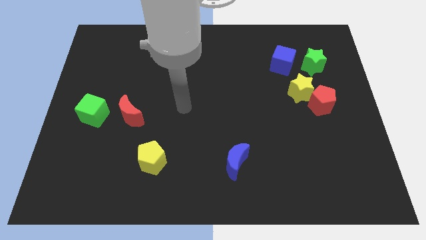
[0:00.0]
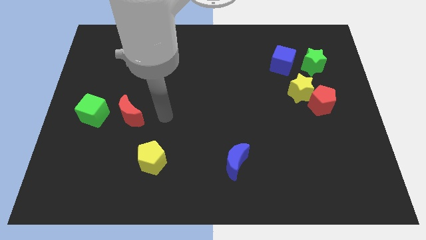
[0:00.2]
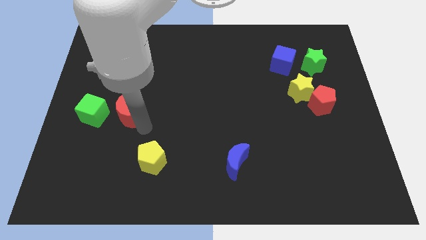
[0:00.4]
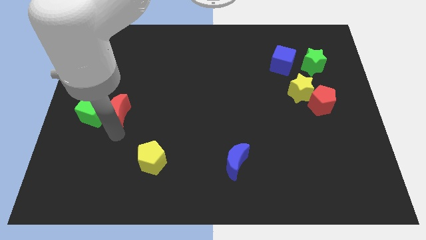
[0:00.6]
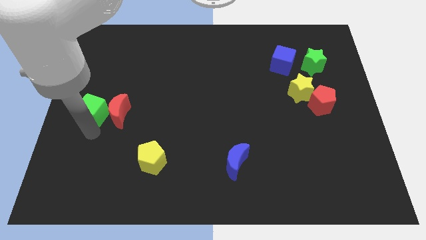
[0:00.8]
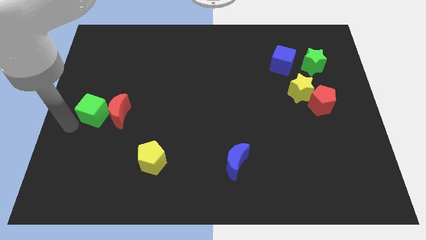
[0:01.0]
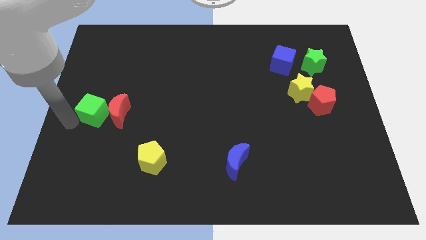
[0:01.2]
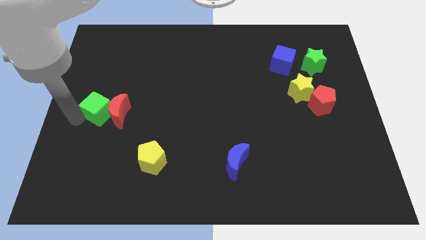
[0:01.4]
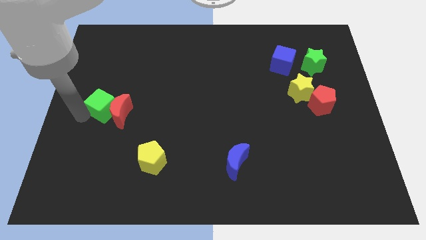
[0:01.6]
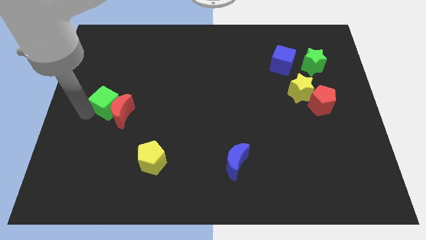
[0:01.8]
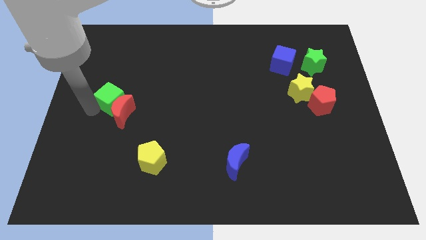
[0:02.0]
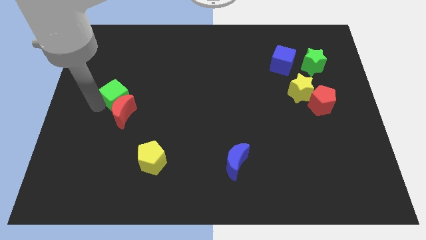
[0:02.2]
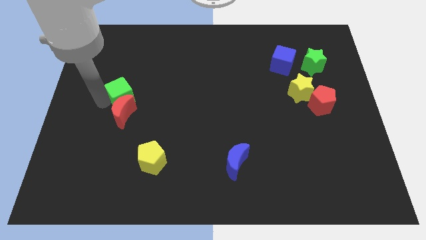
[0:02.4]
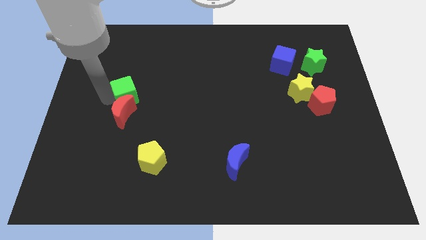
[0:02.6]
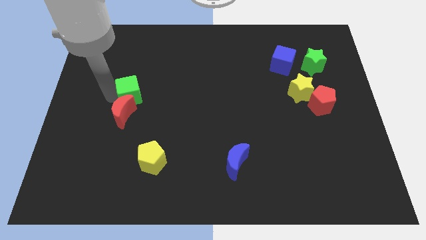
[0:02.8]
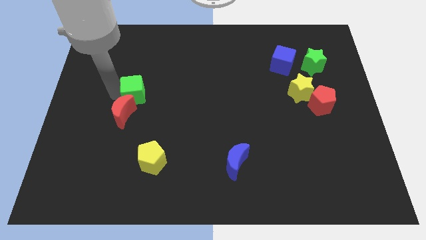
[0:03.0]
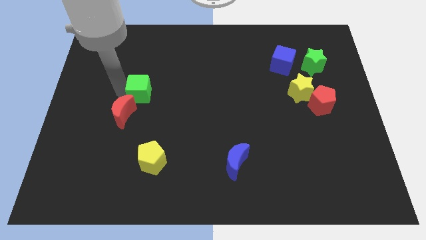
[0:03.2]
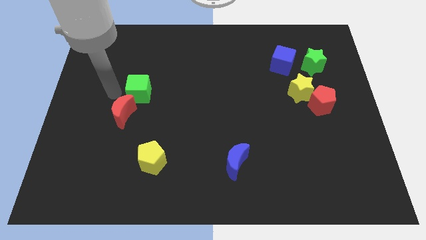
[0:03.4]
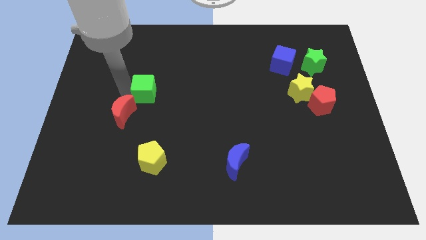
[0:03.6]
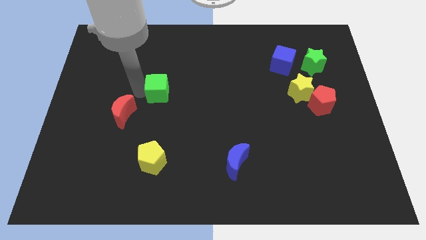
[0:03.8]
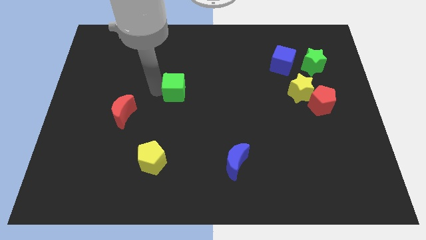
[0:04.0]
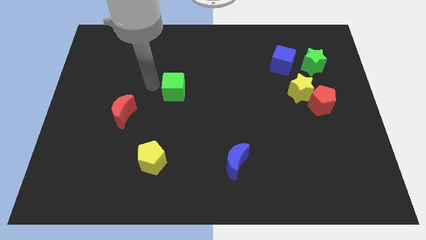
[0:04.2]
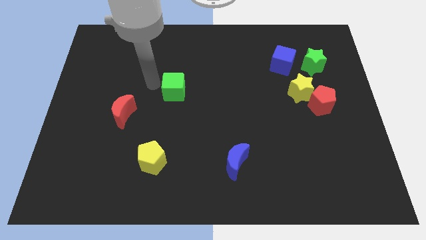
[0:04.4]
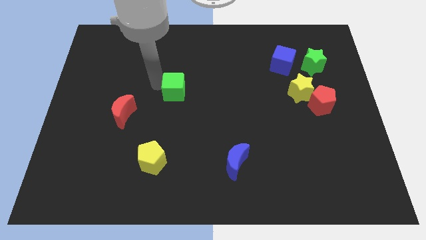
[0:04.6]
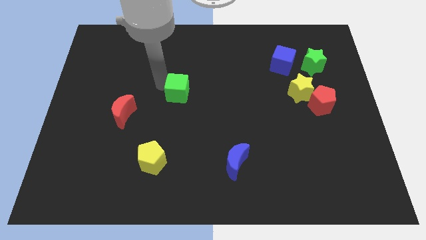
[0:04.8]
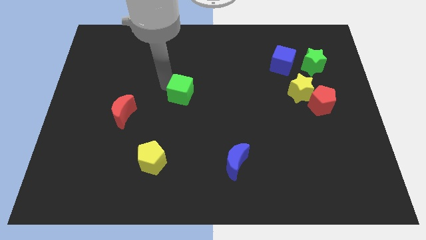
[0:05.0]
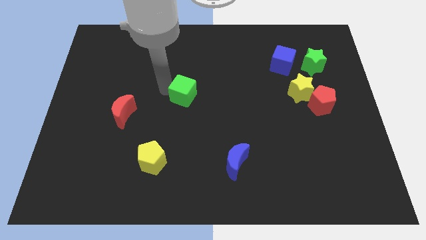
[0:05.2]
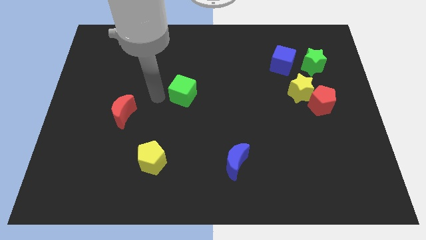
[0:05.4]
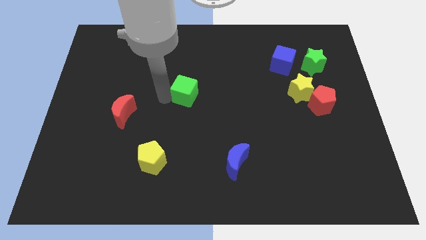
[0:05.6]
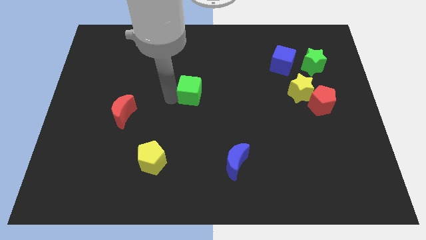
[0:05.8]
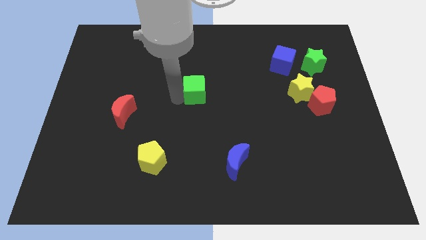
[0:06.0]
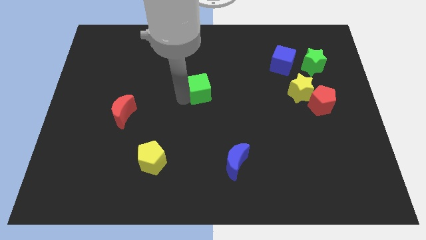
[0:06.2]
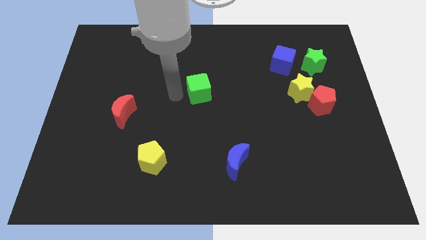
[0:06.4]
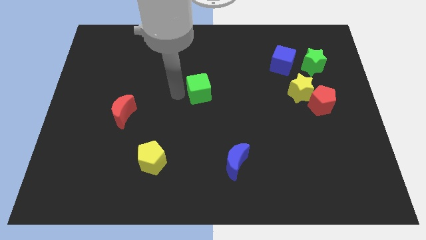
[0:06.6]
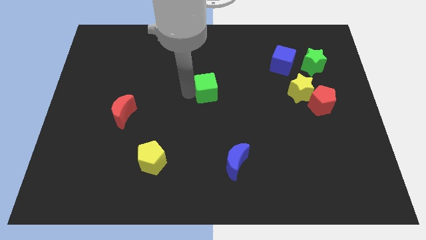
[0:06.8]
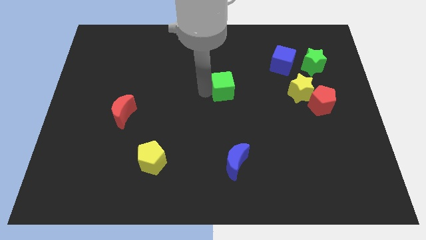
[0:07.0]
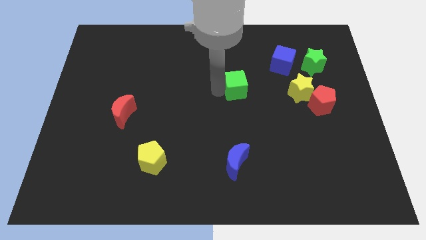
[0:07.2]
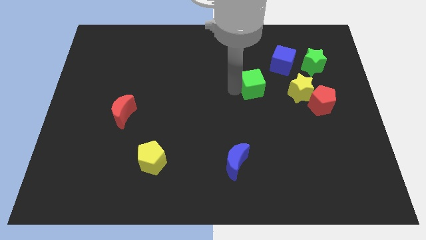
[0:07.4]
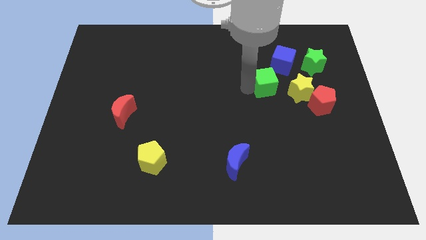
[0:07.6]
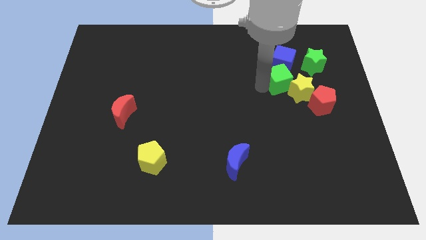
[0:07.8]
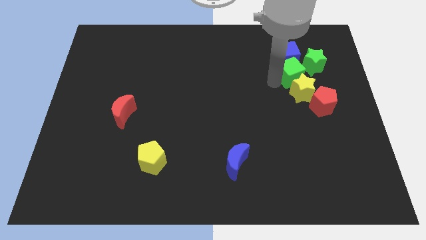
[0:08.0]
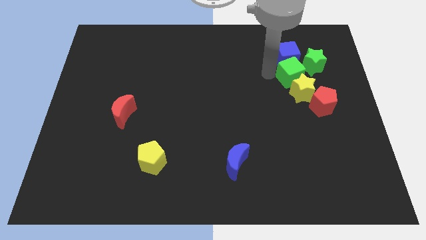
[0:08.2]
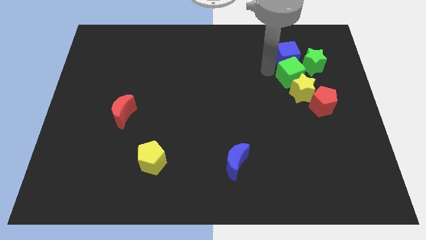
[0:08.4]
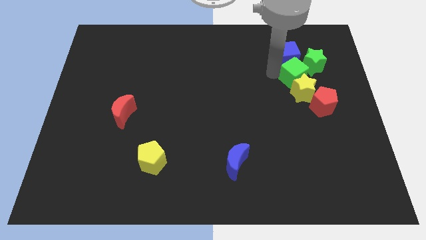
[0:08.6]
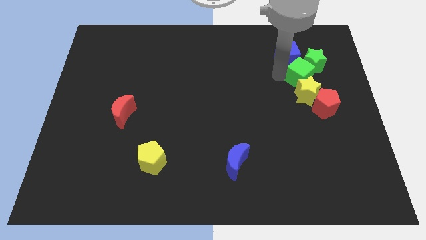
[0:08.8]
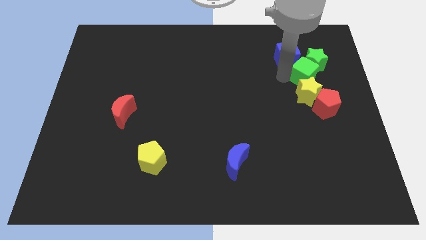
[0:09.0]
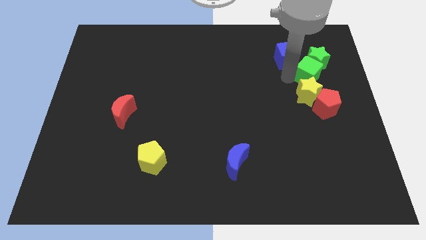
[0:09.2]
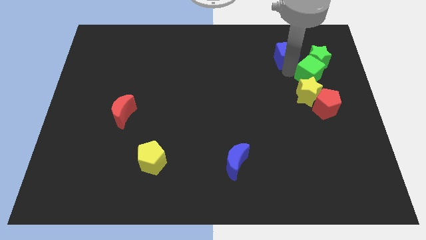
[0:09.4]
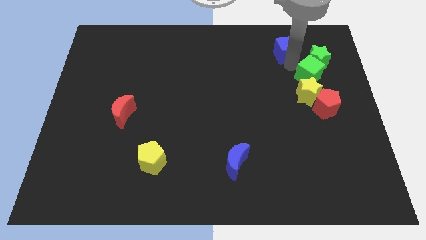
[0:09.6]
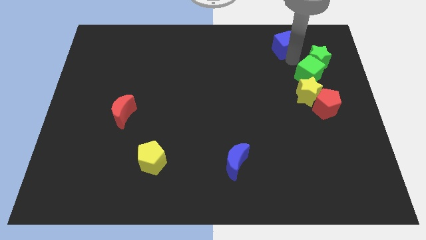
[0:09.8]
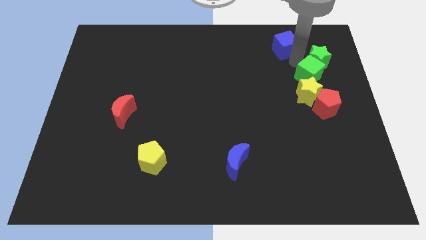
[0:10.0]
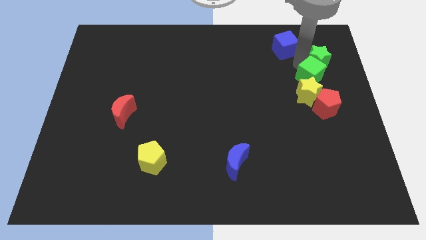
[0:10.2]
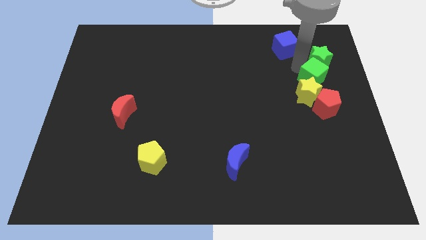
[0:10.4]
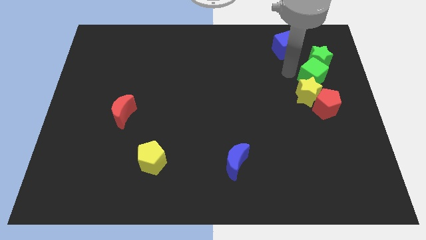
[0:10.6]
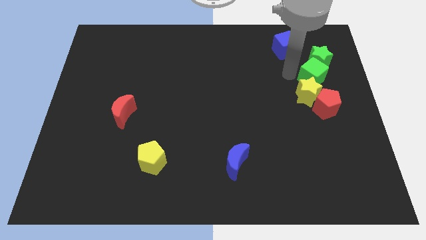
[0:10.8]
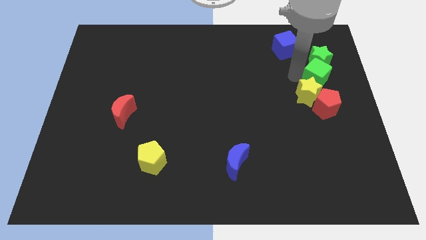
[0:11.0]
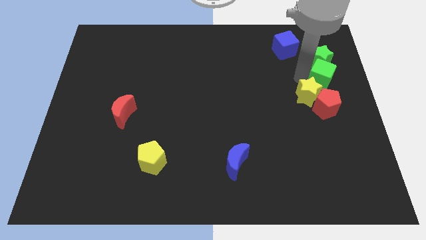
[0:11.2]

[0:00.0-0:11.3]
move the green cube to the center right

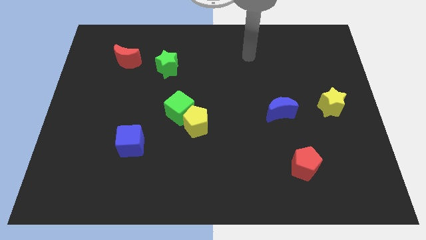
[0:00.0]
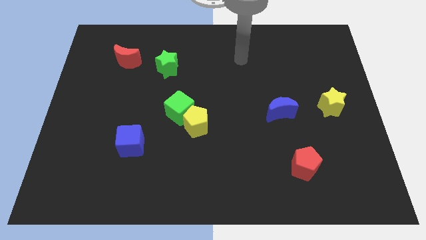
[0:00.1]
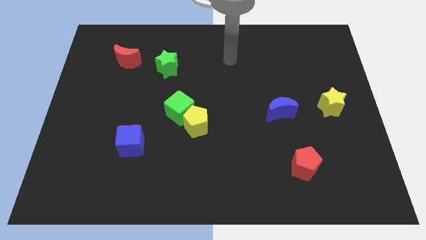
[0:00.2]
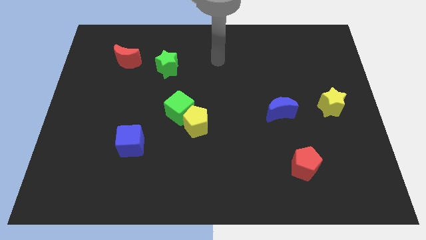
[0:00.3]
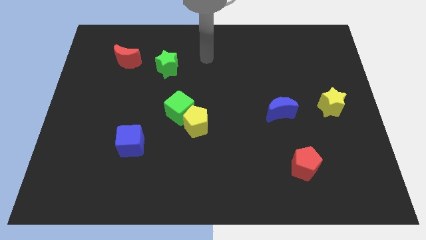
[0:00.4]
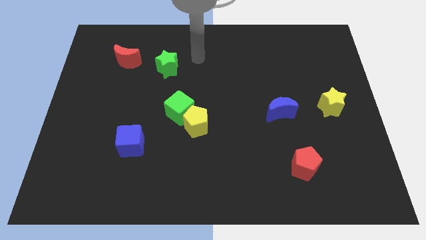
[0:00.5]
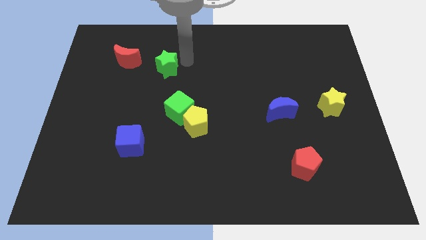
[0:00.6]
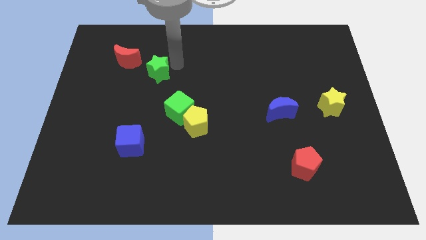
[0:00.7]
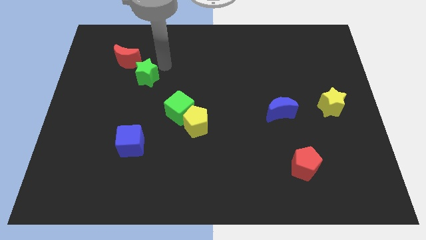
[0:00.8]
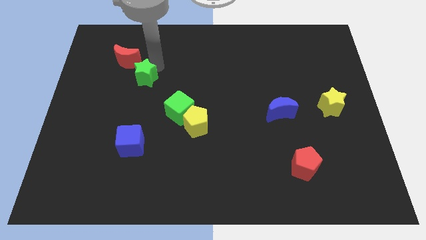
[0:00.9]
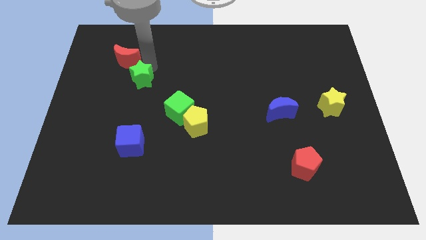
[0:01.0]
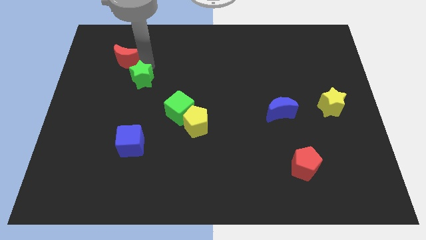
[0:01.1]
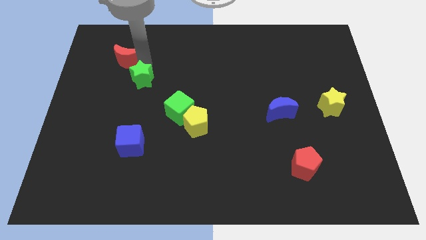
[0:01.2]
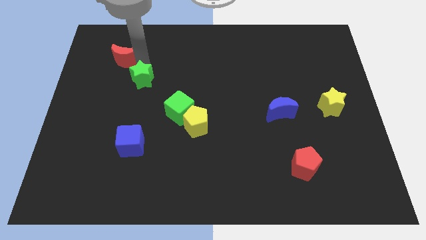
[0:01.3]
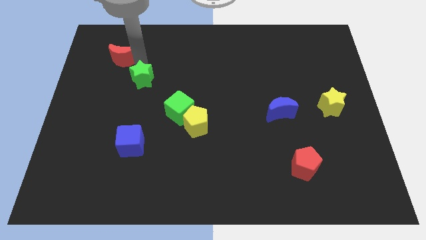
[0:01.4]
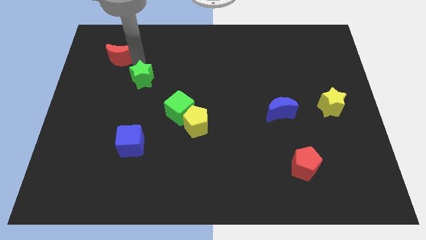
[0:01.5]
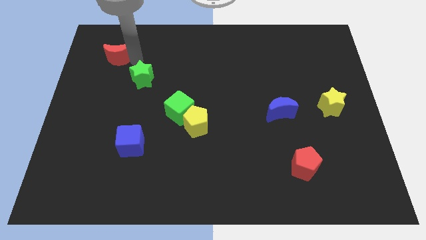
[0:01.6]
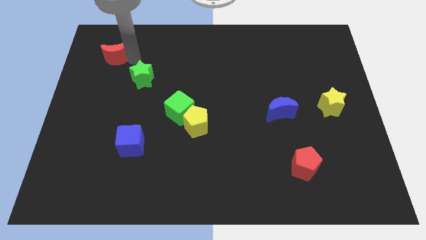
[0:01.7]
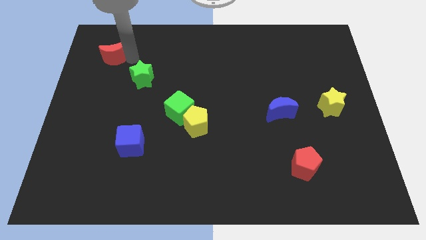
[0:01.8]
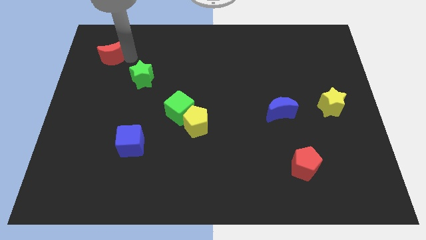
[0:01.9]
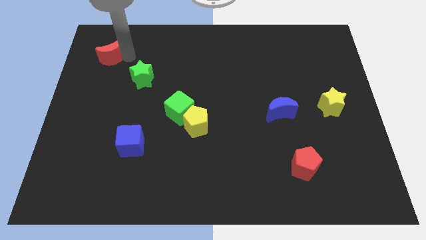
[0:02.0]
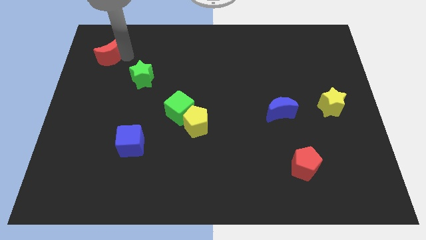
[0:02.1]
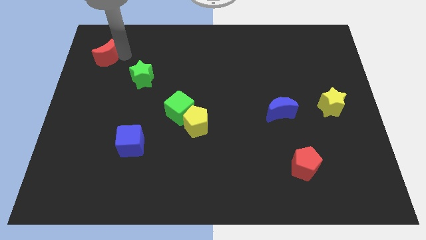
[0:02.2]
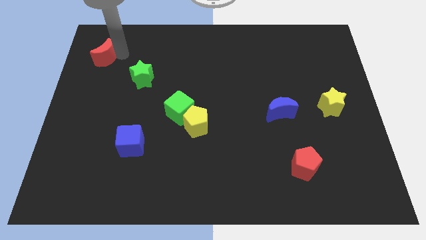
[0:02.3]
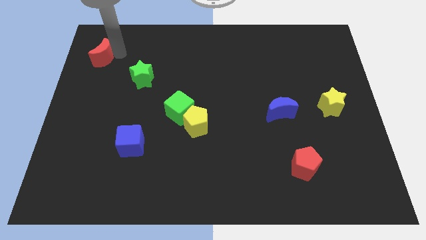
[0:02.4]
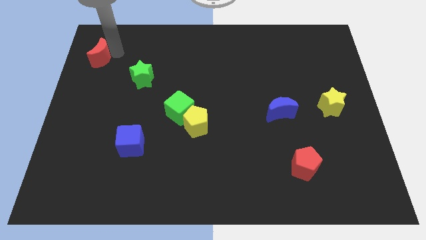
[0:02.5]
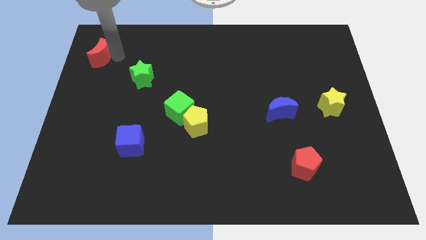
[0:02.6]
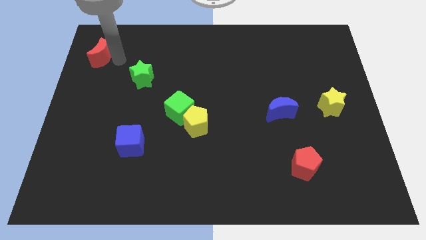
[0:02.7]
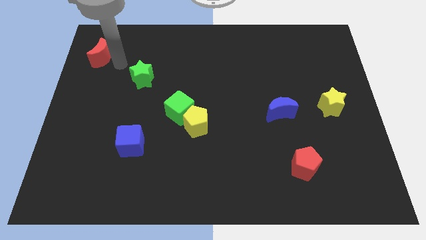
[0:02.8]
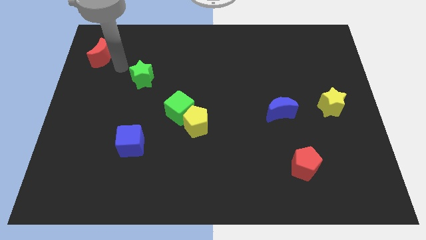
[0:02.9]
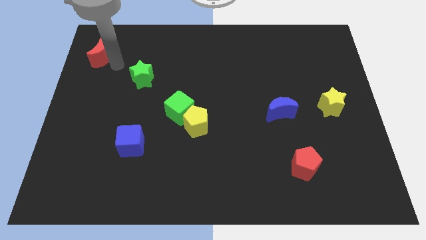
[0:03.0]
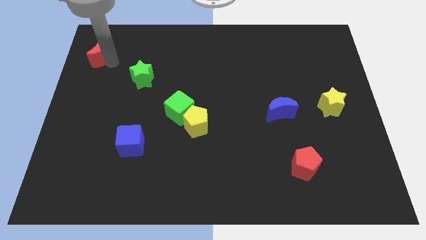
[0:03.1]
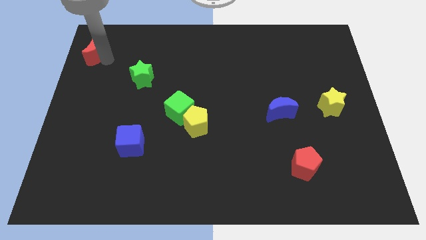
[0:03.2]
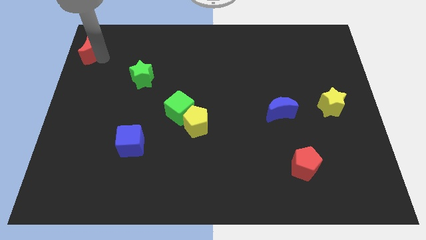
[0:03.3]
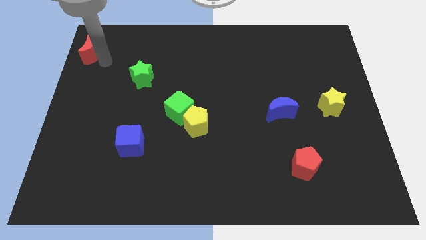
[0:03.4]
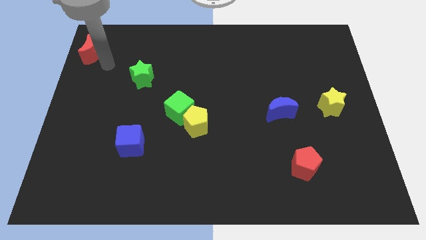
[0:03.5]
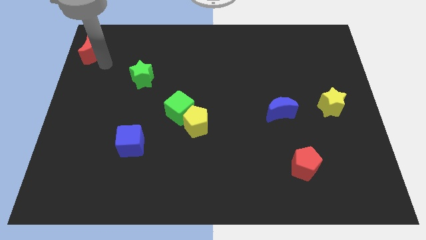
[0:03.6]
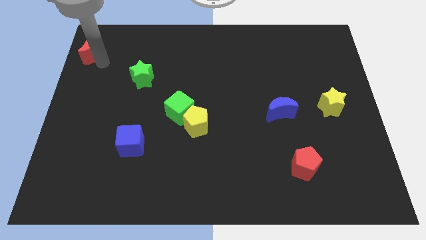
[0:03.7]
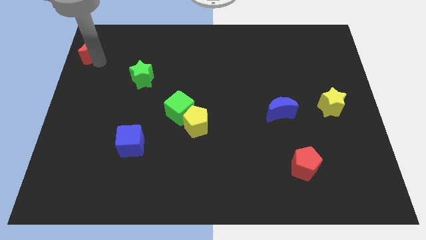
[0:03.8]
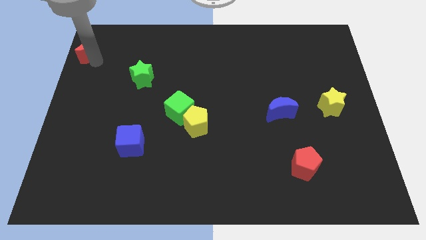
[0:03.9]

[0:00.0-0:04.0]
move the red moon to the top left of the board
